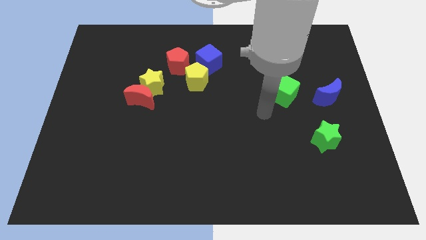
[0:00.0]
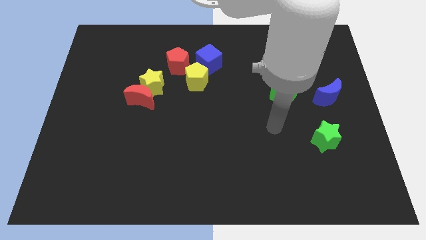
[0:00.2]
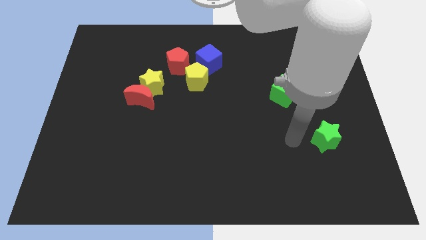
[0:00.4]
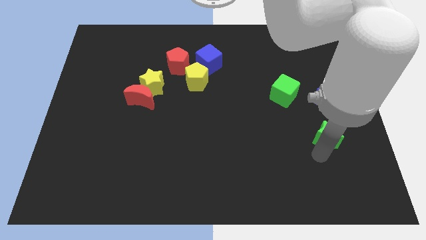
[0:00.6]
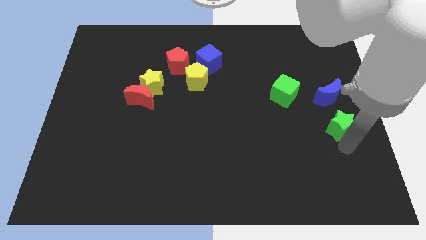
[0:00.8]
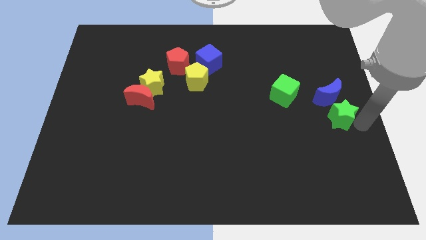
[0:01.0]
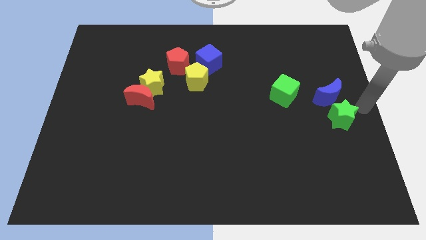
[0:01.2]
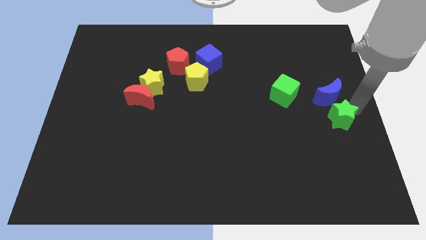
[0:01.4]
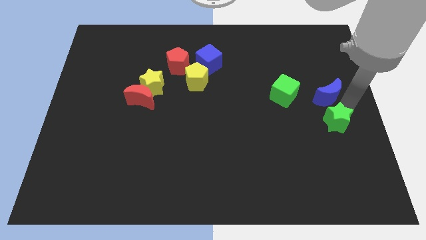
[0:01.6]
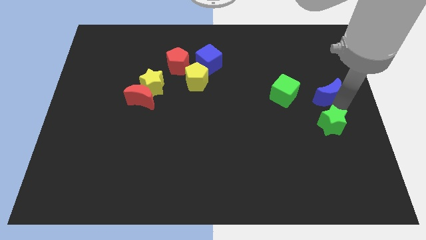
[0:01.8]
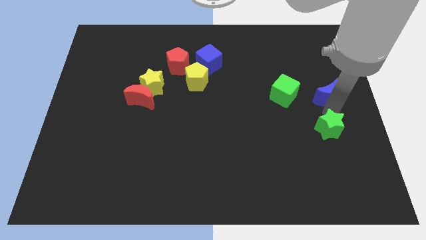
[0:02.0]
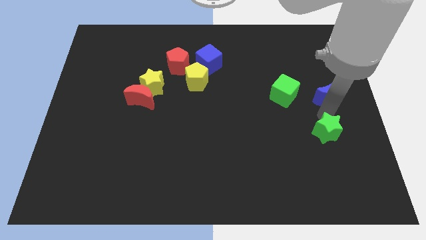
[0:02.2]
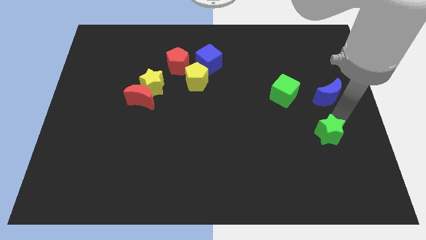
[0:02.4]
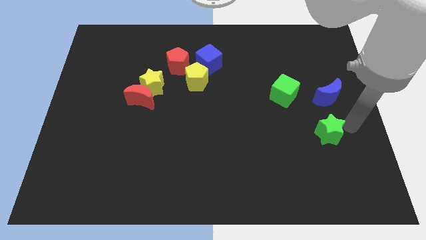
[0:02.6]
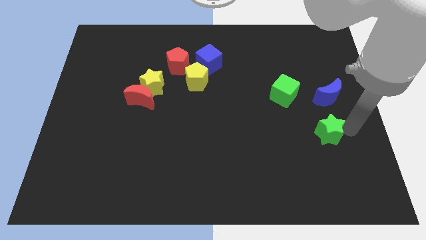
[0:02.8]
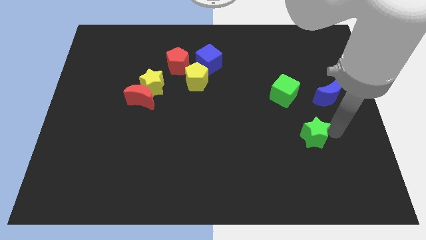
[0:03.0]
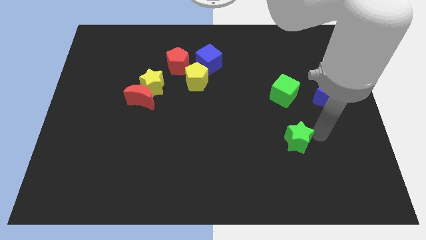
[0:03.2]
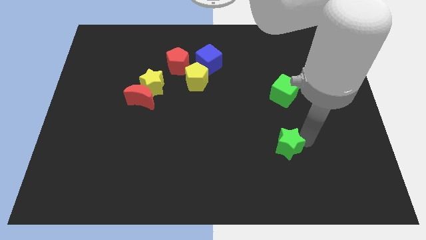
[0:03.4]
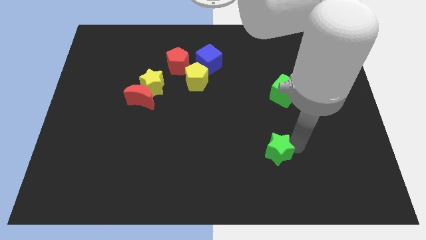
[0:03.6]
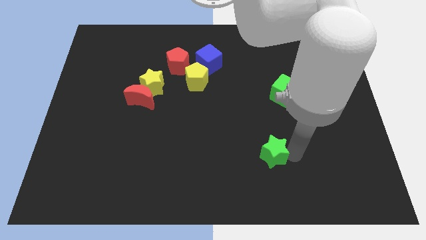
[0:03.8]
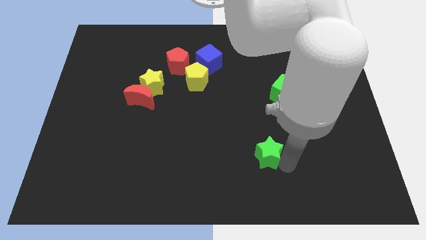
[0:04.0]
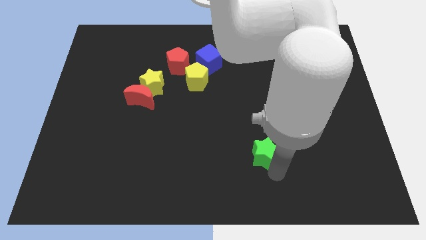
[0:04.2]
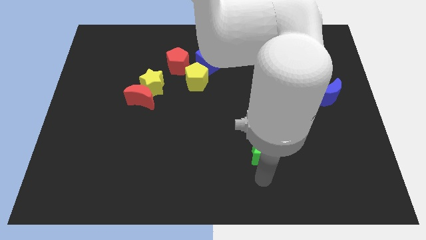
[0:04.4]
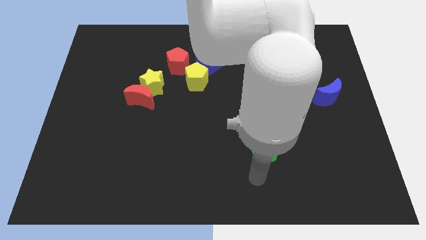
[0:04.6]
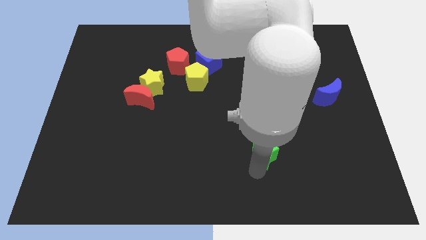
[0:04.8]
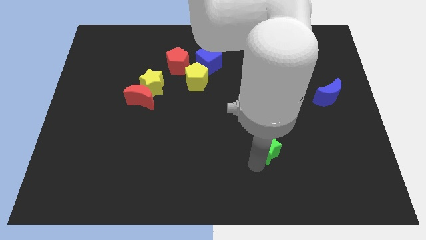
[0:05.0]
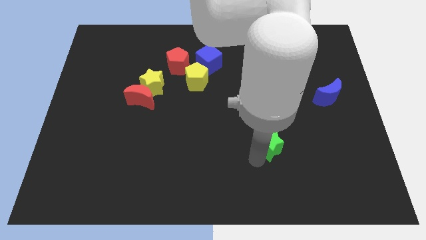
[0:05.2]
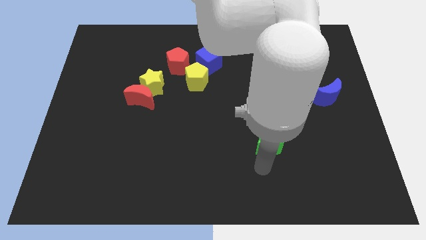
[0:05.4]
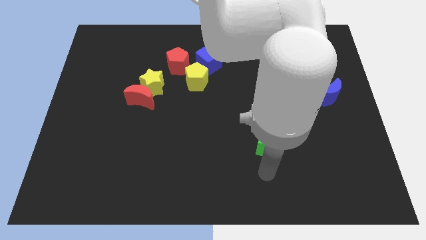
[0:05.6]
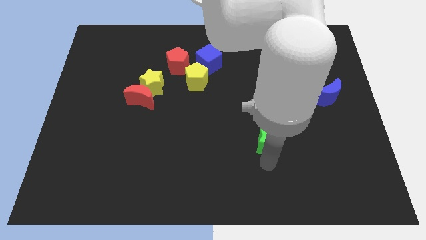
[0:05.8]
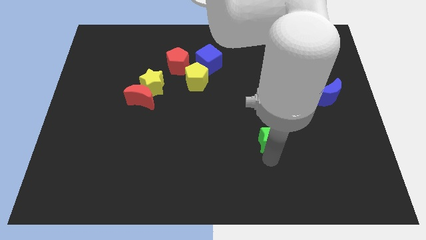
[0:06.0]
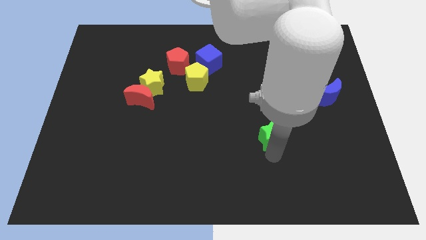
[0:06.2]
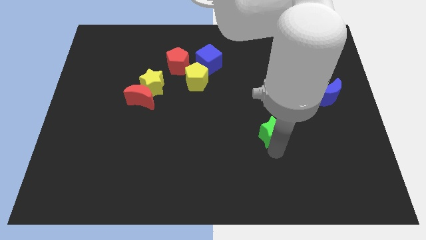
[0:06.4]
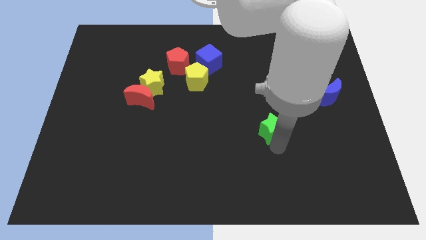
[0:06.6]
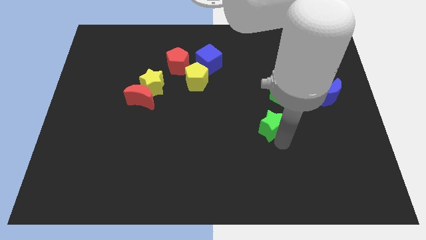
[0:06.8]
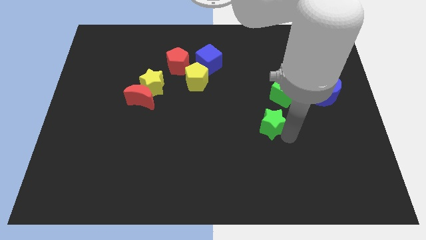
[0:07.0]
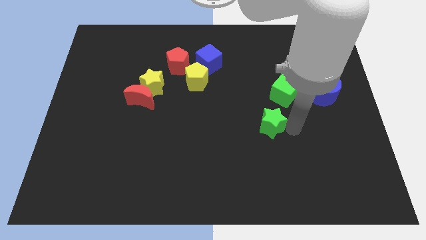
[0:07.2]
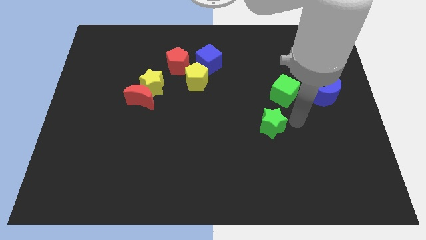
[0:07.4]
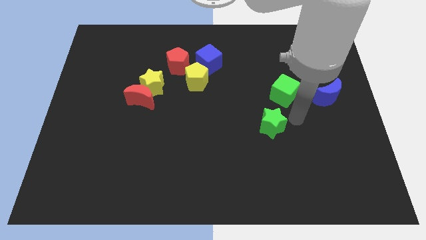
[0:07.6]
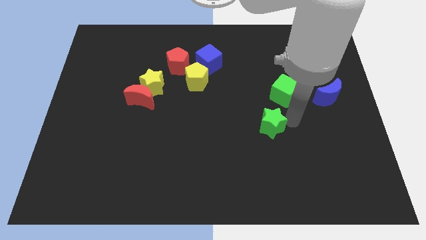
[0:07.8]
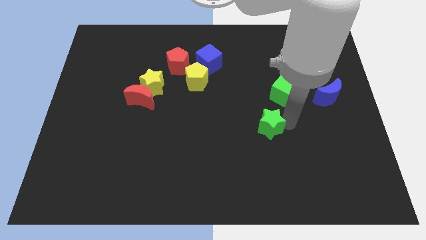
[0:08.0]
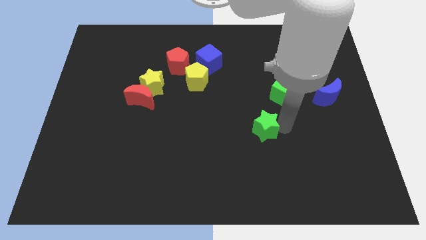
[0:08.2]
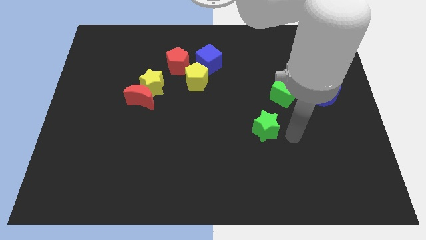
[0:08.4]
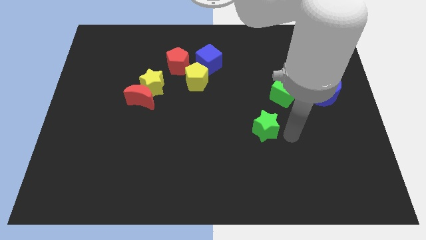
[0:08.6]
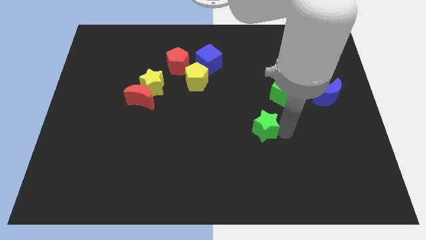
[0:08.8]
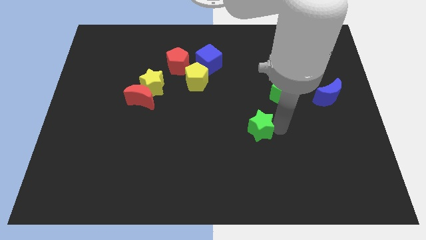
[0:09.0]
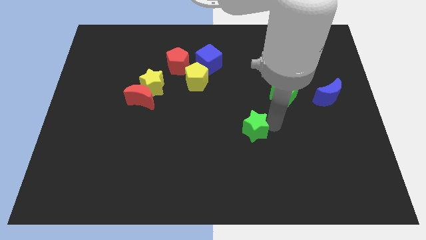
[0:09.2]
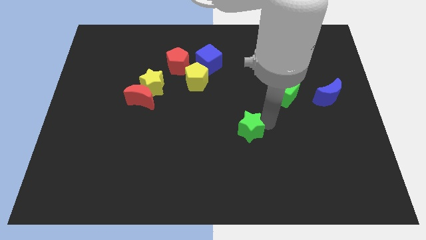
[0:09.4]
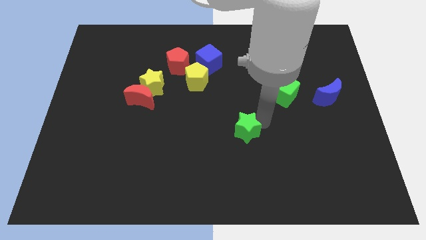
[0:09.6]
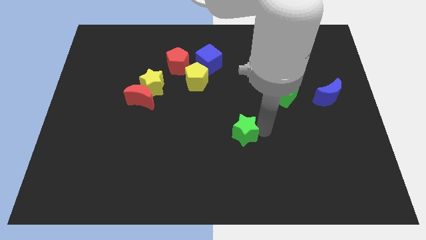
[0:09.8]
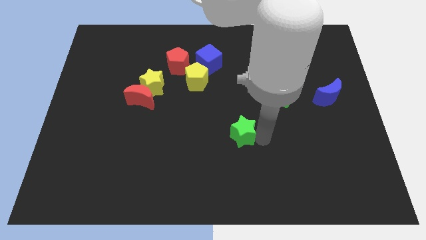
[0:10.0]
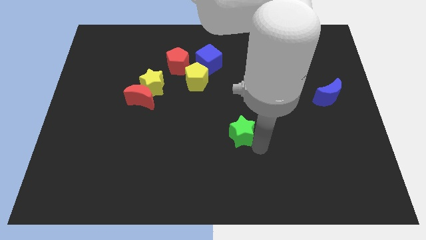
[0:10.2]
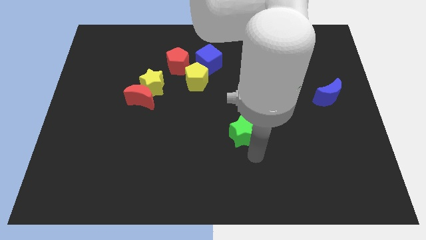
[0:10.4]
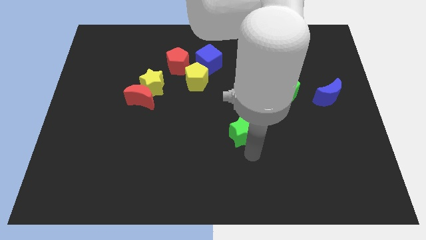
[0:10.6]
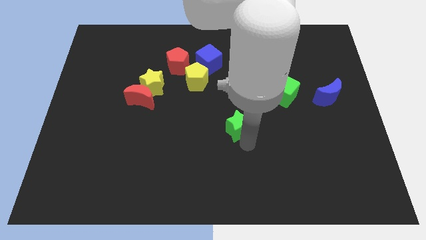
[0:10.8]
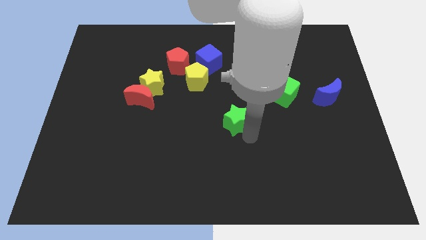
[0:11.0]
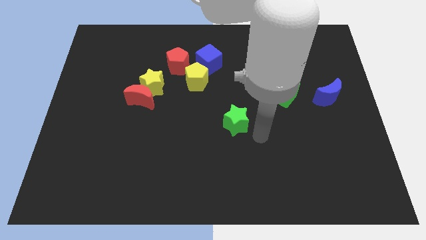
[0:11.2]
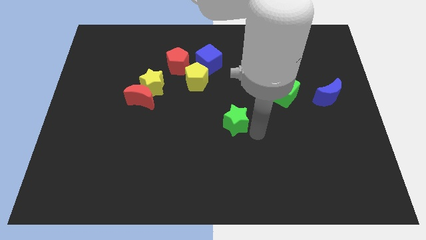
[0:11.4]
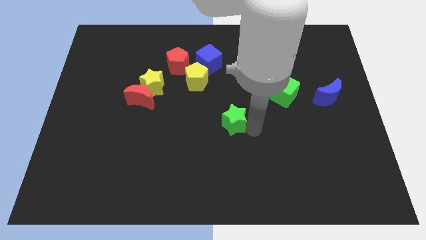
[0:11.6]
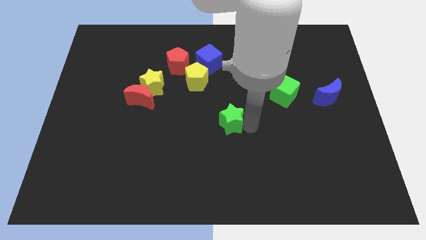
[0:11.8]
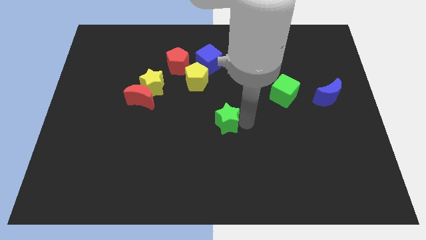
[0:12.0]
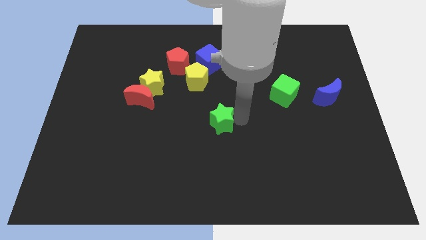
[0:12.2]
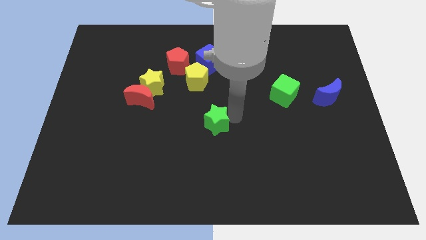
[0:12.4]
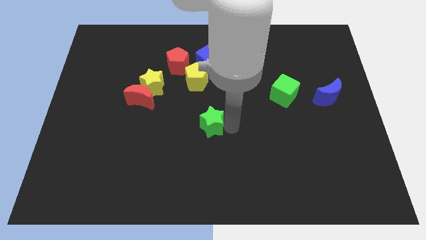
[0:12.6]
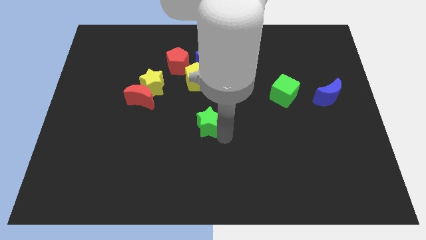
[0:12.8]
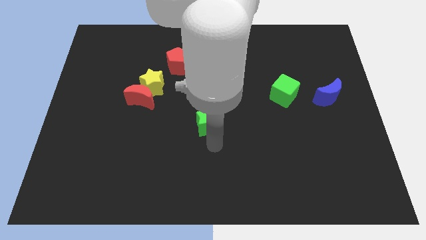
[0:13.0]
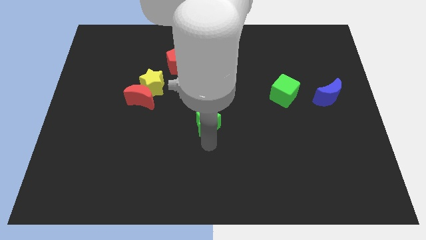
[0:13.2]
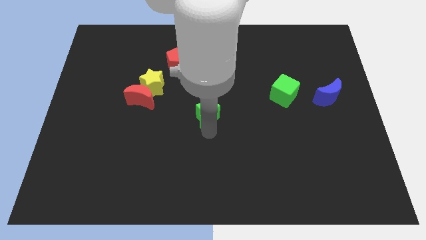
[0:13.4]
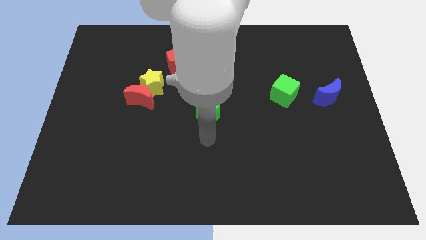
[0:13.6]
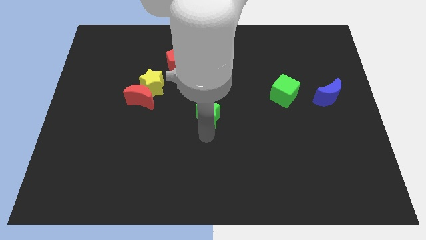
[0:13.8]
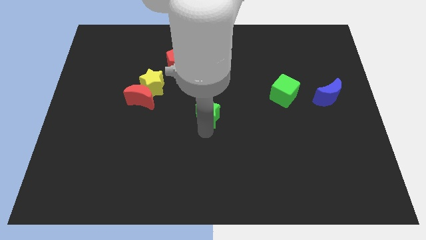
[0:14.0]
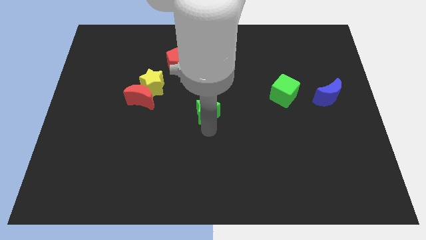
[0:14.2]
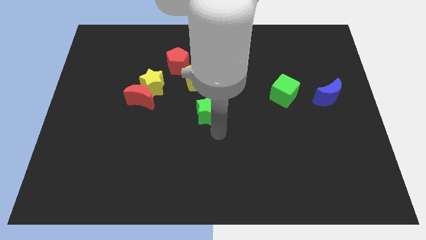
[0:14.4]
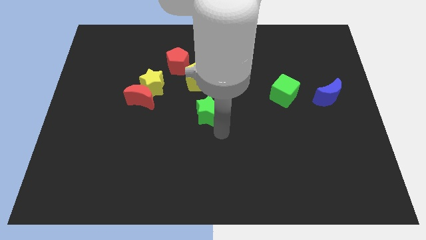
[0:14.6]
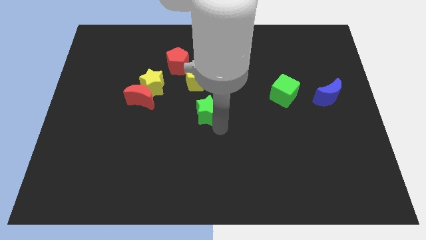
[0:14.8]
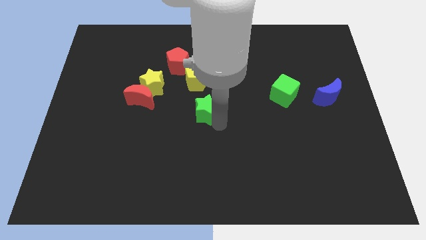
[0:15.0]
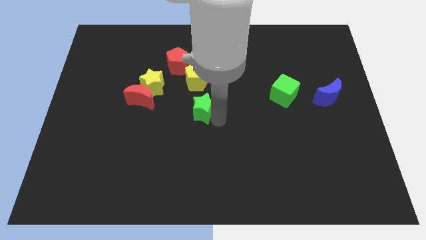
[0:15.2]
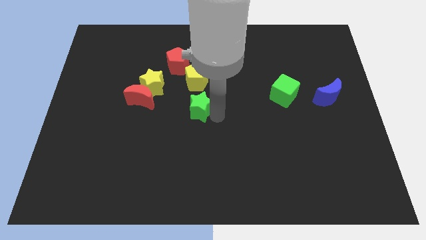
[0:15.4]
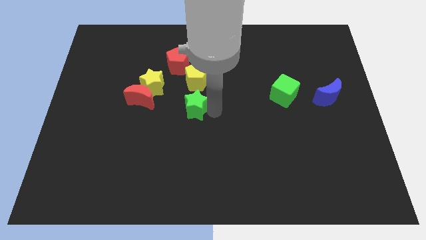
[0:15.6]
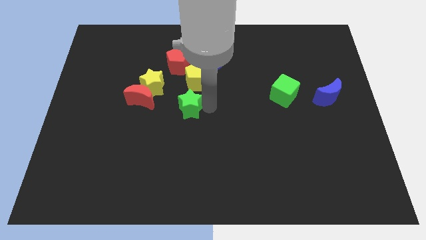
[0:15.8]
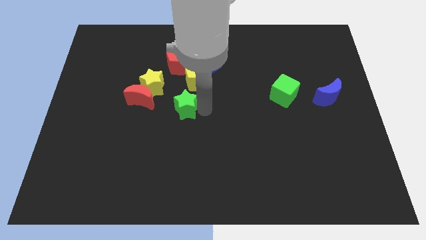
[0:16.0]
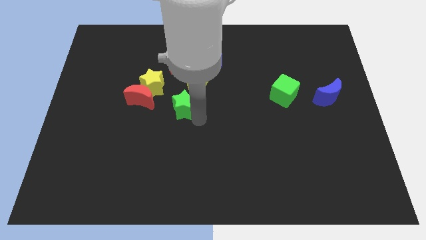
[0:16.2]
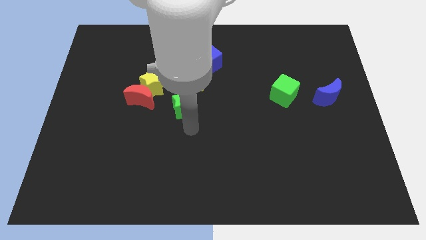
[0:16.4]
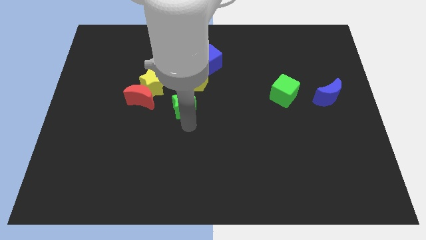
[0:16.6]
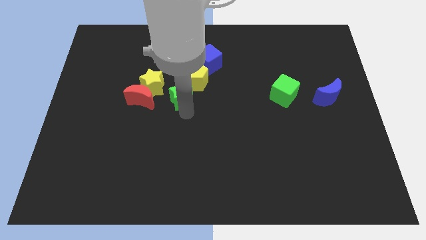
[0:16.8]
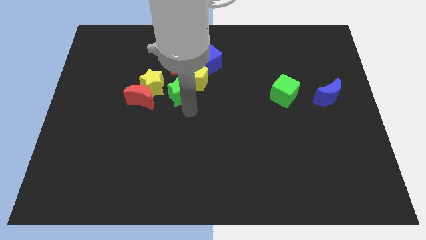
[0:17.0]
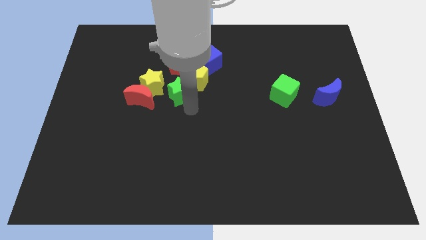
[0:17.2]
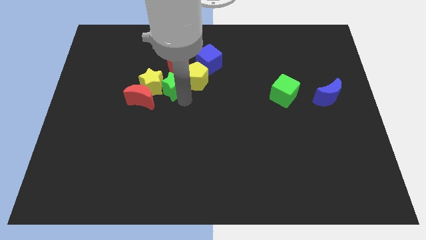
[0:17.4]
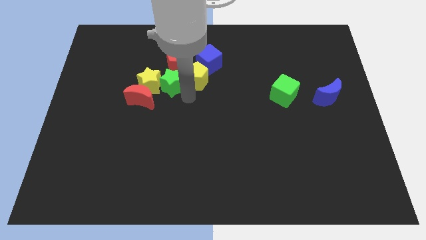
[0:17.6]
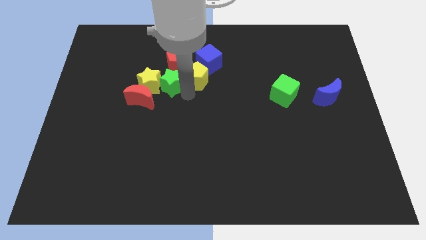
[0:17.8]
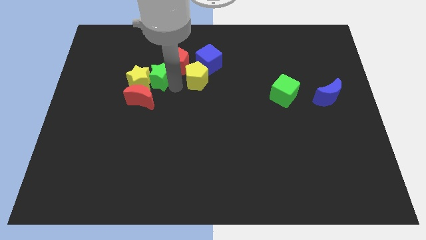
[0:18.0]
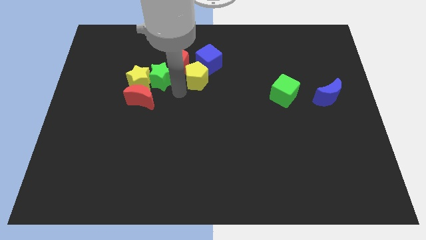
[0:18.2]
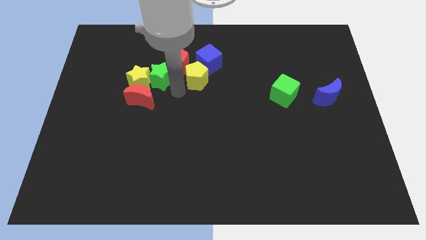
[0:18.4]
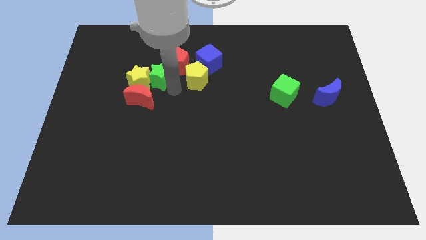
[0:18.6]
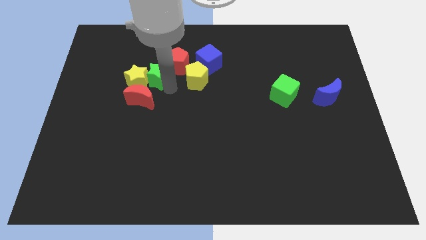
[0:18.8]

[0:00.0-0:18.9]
put the green star left of the red pentagon
